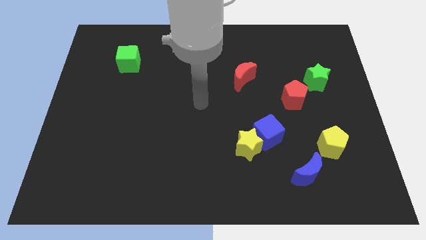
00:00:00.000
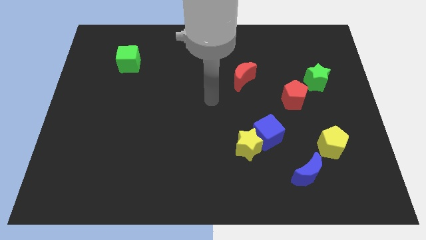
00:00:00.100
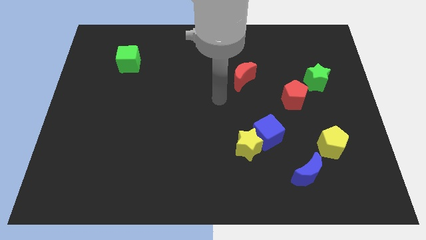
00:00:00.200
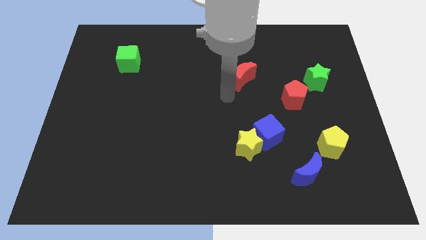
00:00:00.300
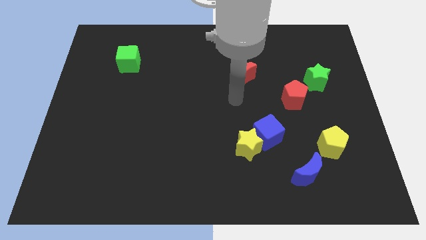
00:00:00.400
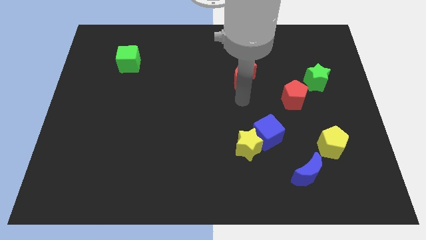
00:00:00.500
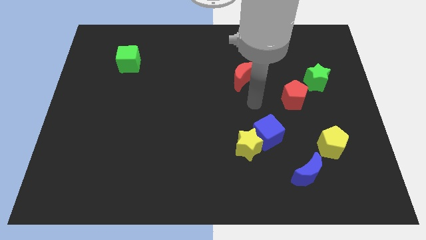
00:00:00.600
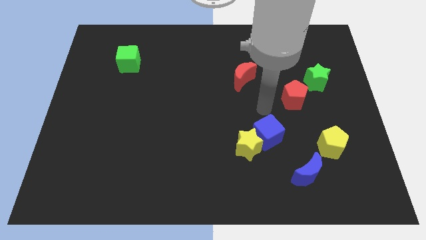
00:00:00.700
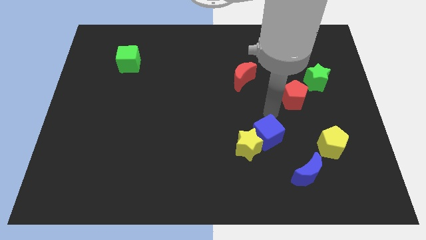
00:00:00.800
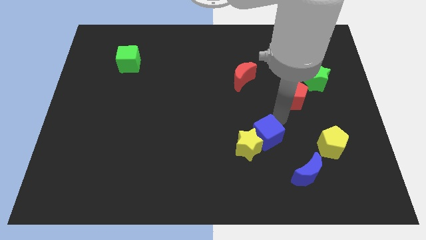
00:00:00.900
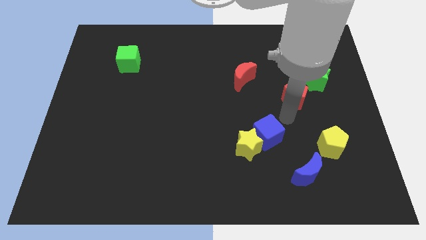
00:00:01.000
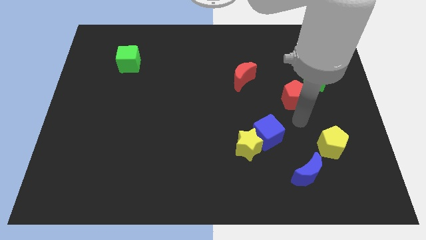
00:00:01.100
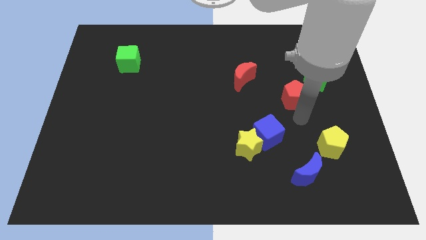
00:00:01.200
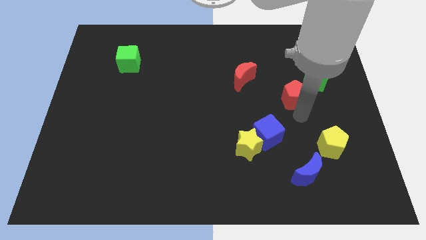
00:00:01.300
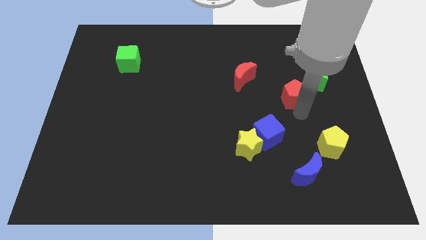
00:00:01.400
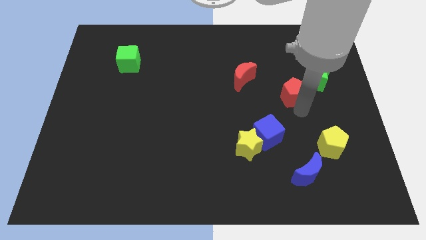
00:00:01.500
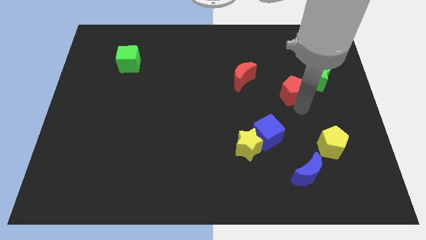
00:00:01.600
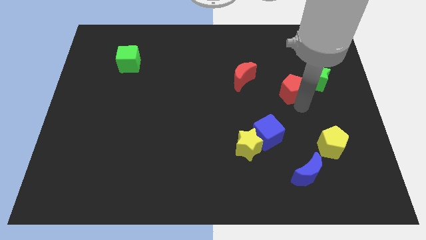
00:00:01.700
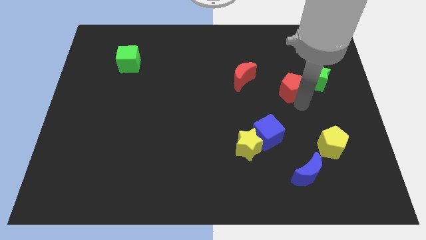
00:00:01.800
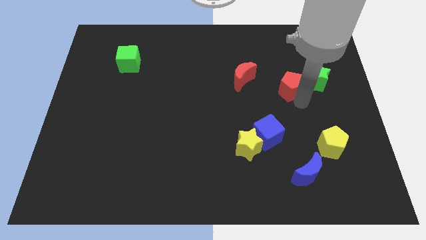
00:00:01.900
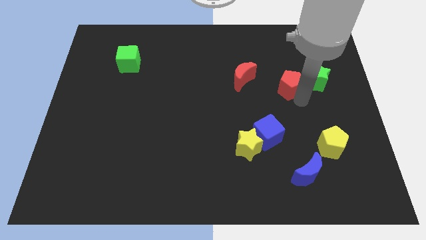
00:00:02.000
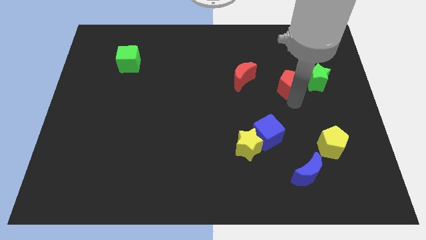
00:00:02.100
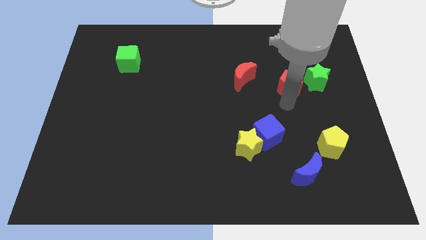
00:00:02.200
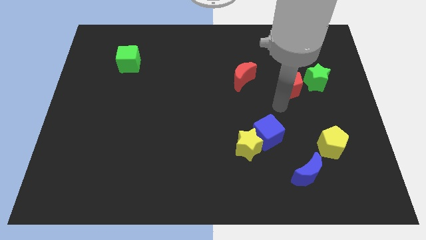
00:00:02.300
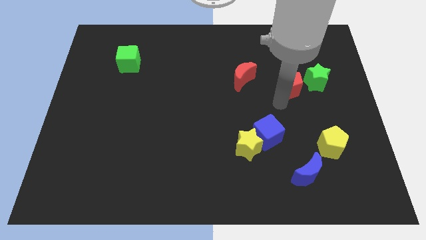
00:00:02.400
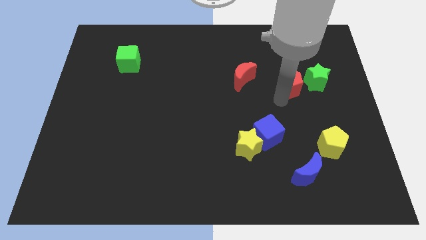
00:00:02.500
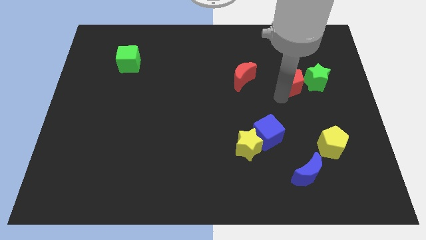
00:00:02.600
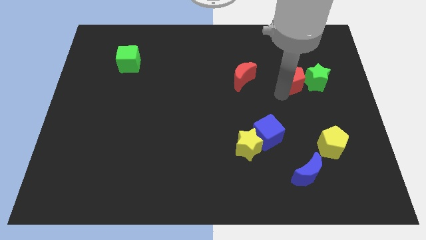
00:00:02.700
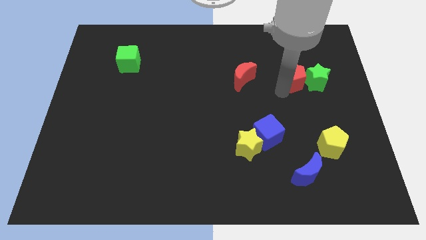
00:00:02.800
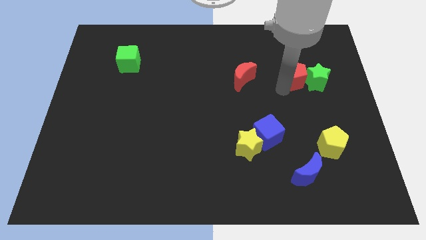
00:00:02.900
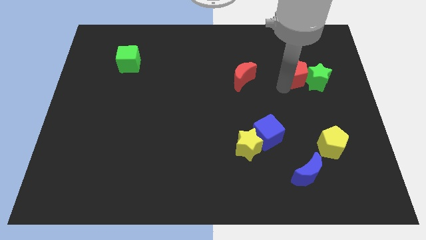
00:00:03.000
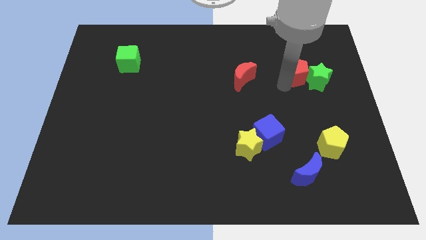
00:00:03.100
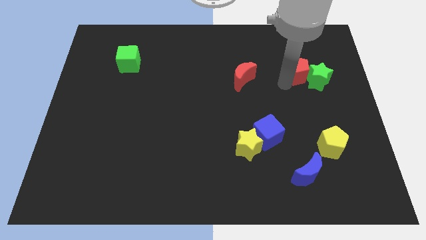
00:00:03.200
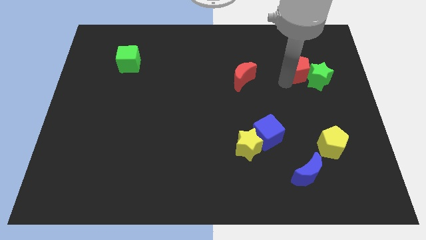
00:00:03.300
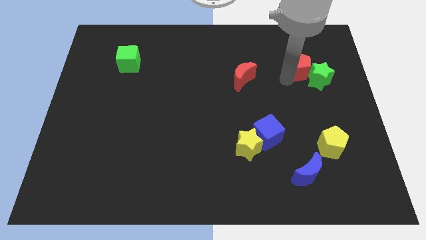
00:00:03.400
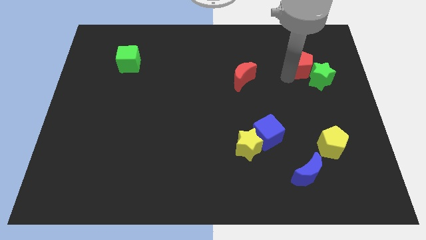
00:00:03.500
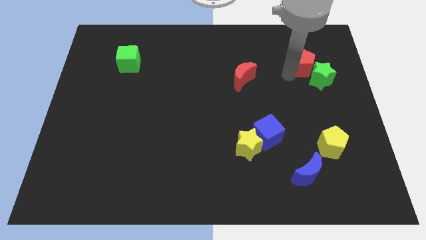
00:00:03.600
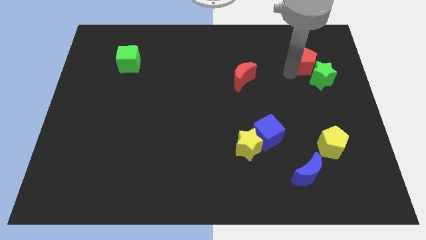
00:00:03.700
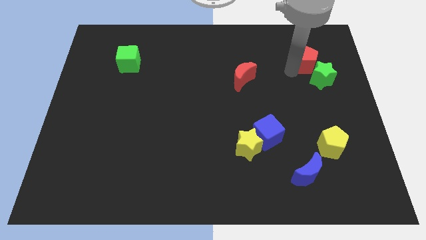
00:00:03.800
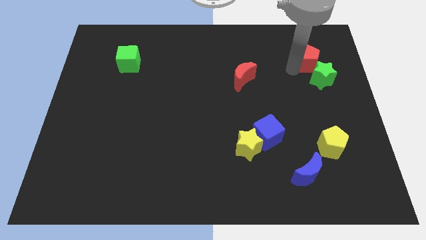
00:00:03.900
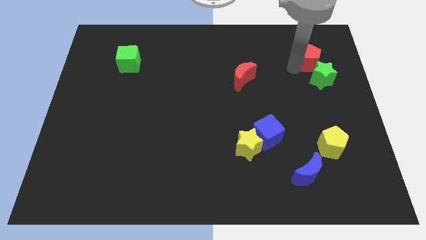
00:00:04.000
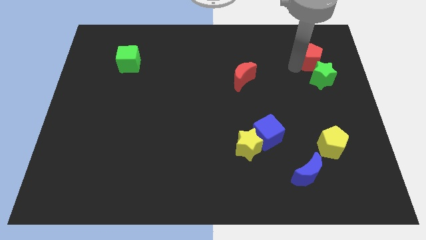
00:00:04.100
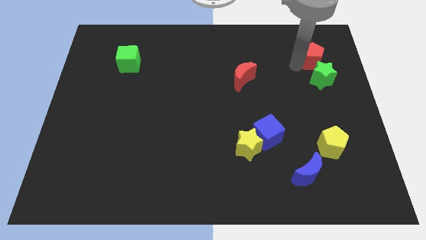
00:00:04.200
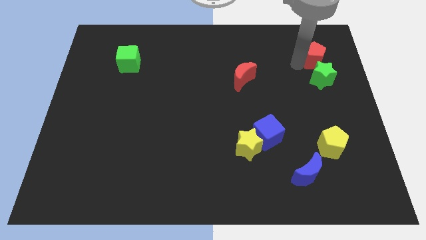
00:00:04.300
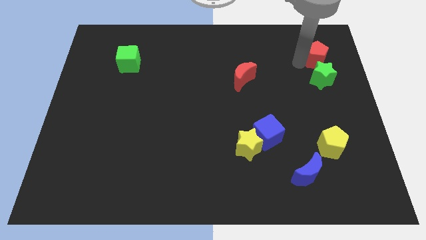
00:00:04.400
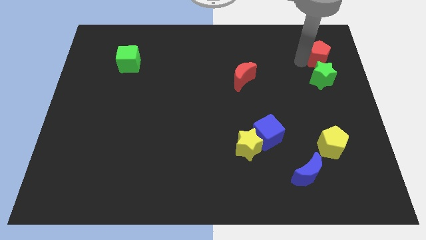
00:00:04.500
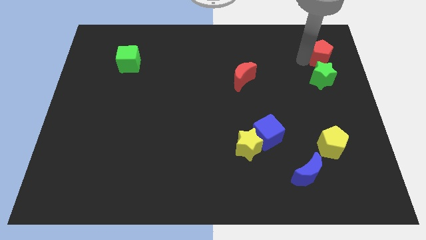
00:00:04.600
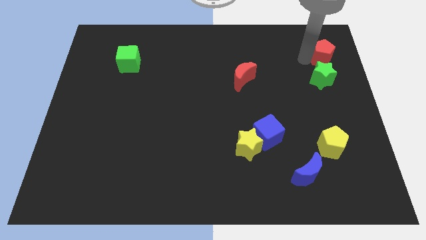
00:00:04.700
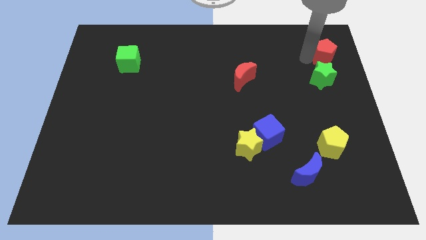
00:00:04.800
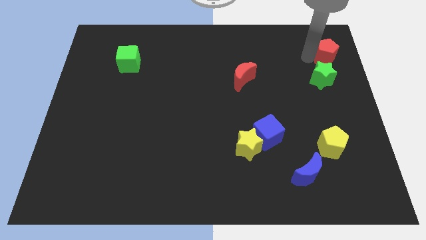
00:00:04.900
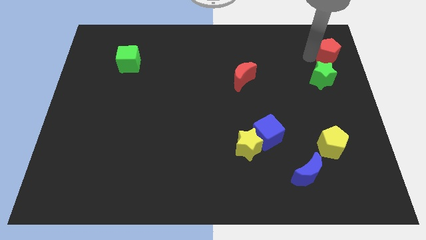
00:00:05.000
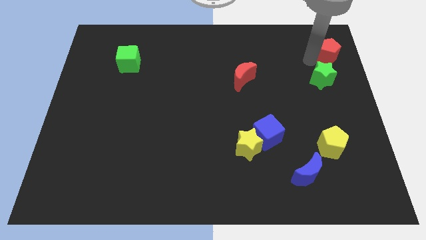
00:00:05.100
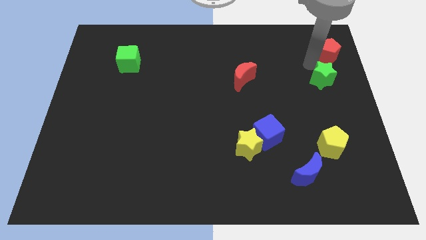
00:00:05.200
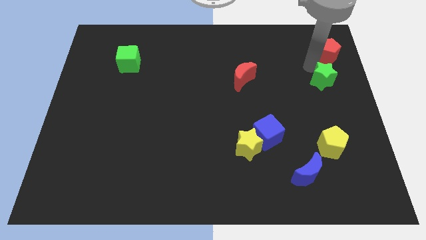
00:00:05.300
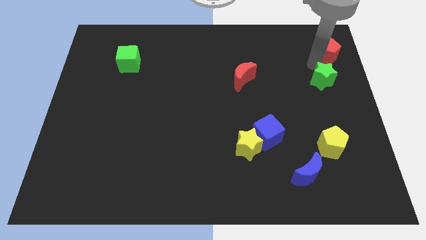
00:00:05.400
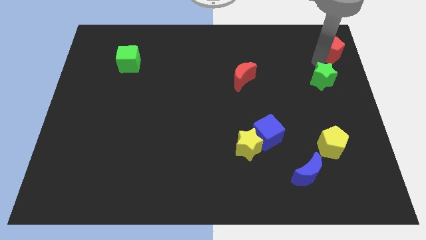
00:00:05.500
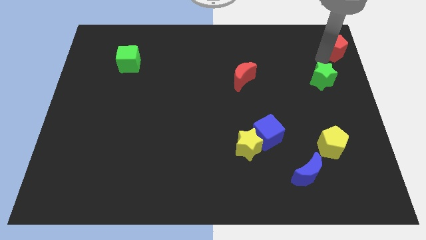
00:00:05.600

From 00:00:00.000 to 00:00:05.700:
put the red pentagon to the top right corner

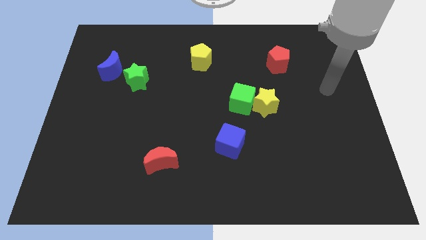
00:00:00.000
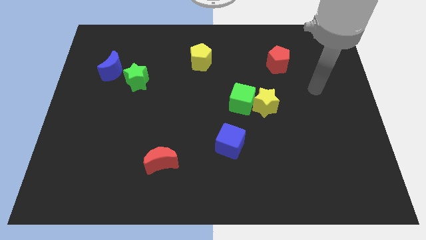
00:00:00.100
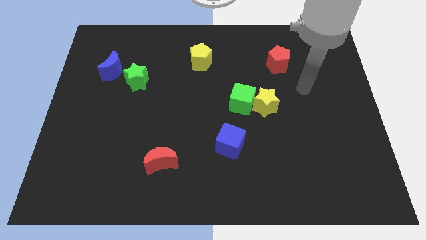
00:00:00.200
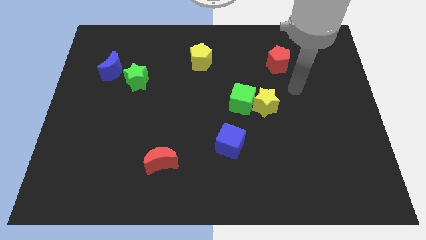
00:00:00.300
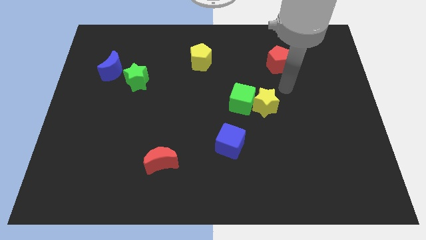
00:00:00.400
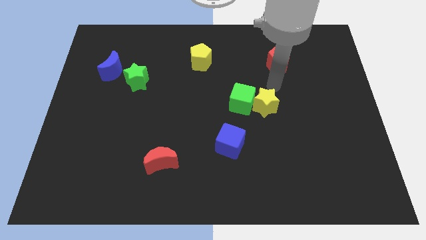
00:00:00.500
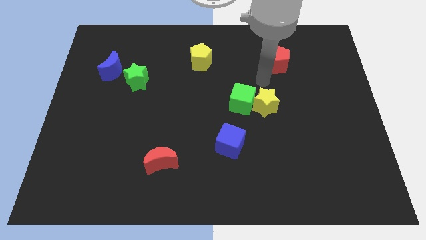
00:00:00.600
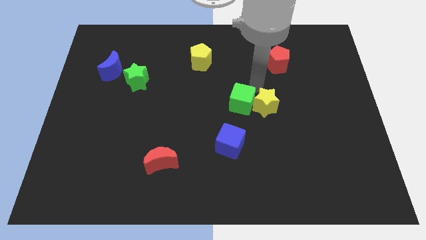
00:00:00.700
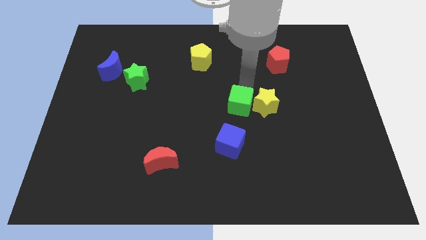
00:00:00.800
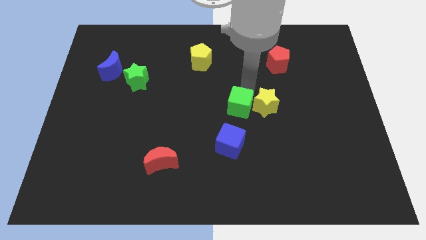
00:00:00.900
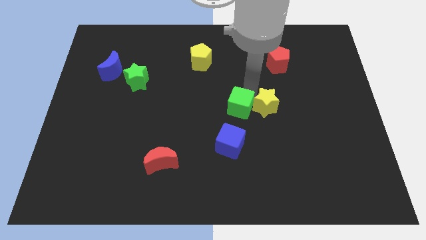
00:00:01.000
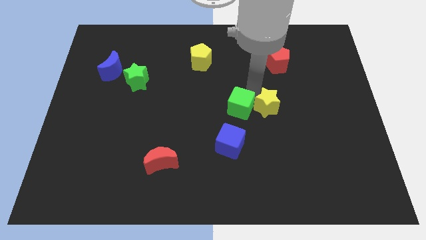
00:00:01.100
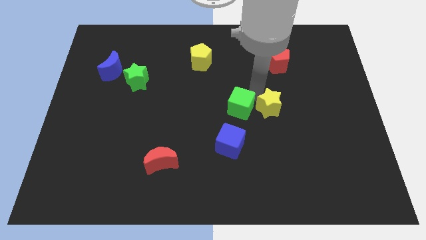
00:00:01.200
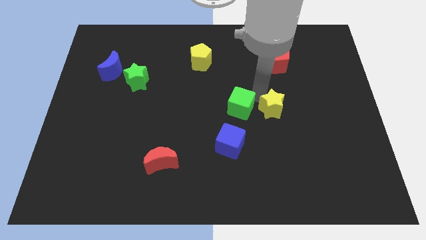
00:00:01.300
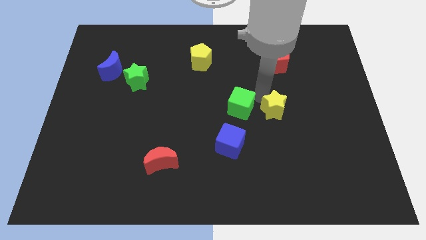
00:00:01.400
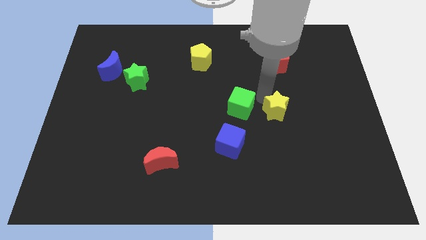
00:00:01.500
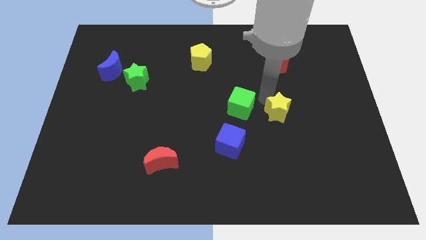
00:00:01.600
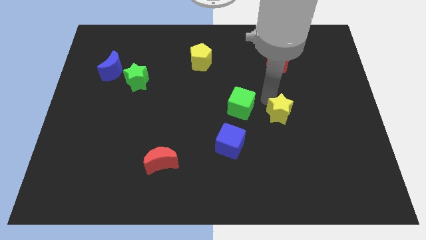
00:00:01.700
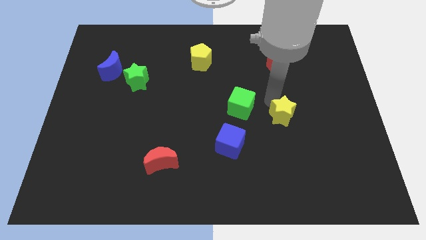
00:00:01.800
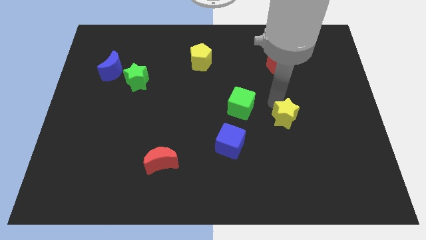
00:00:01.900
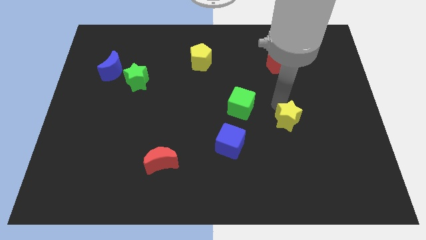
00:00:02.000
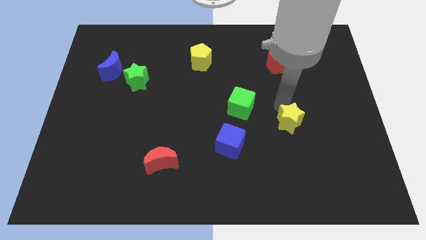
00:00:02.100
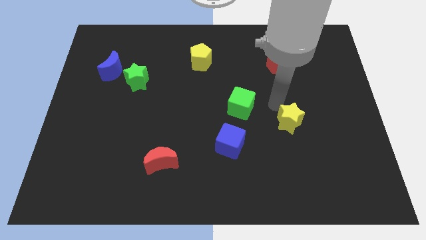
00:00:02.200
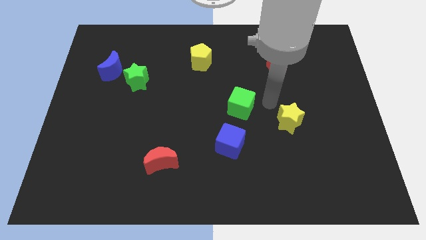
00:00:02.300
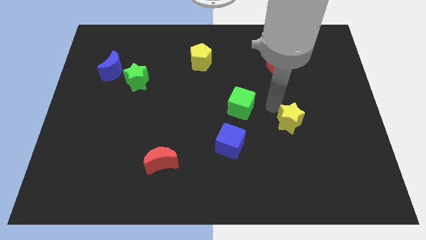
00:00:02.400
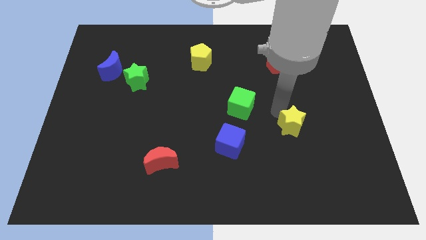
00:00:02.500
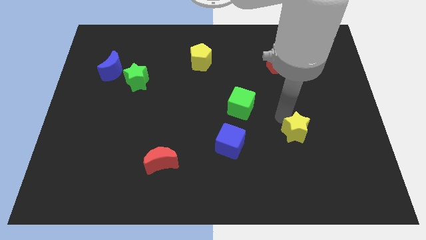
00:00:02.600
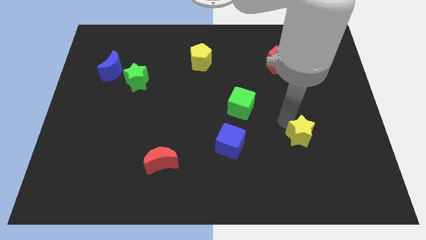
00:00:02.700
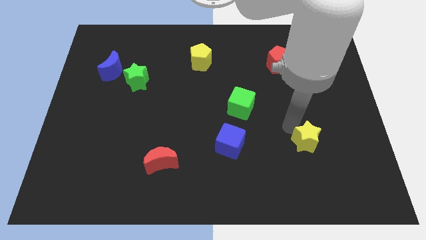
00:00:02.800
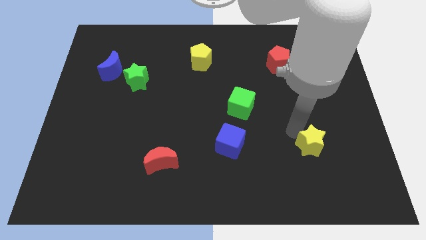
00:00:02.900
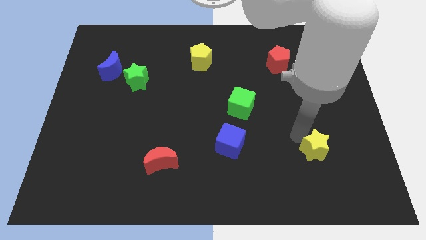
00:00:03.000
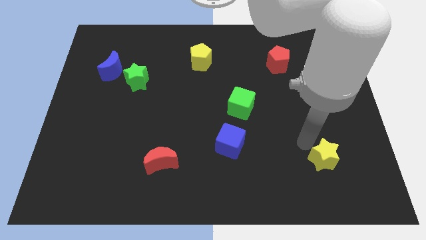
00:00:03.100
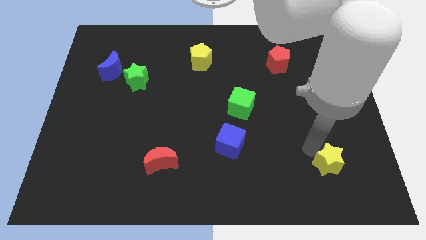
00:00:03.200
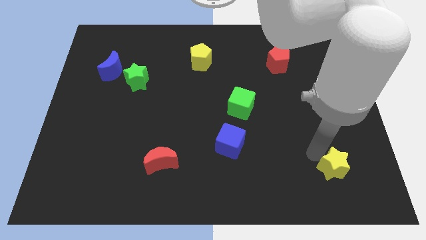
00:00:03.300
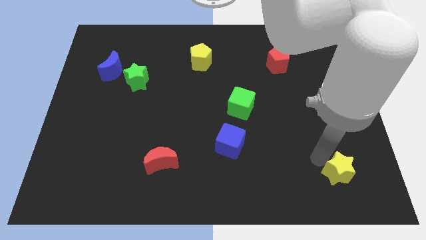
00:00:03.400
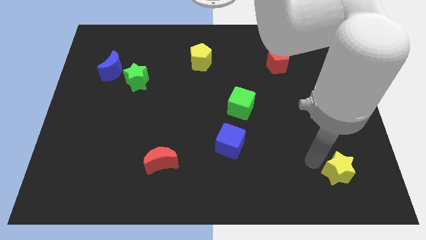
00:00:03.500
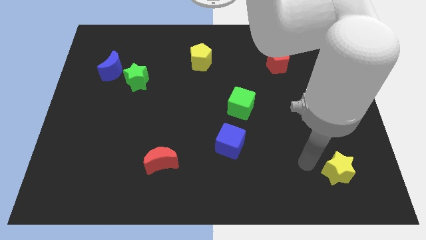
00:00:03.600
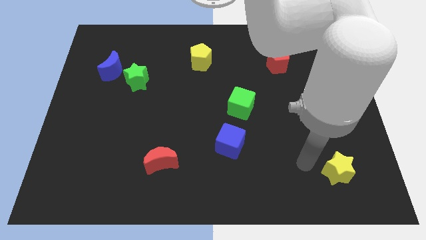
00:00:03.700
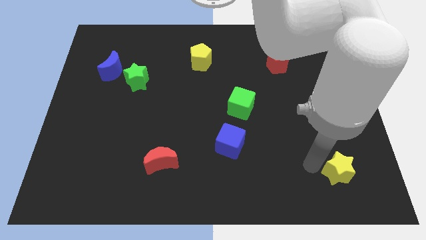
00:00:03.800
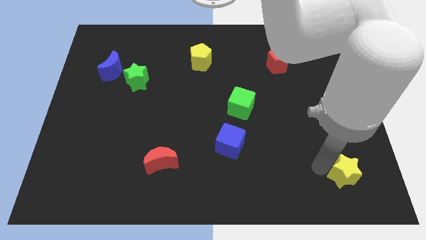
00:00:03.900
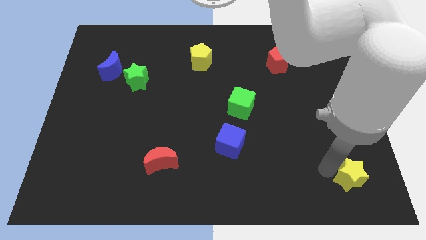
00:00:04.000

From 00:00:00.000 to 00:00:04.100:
push the yellow star to the bottom right of the board
